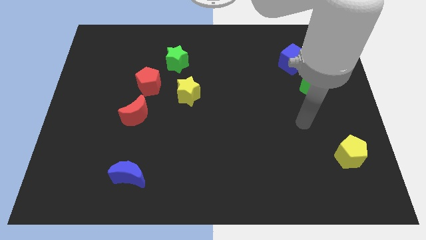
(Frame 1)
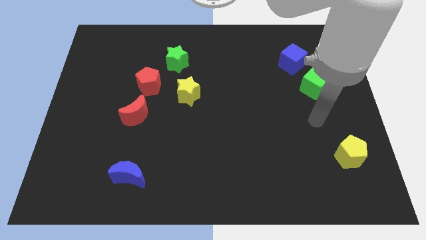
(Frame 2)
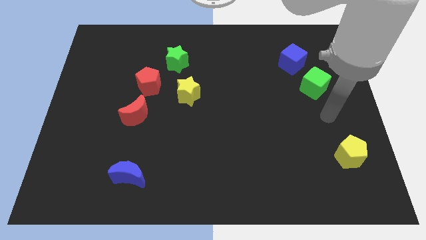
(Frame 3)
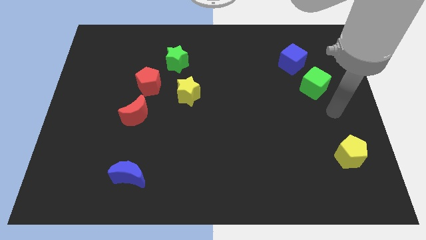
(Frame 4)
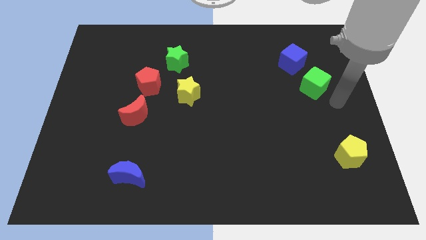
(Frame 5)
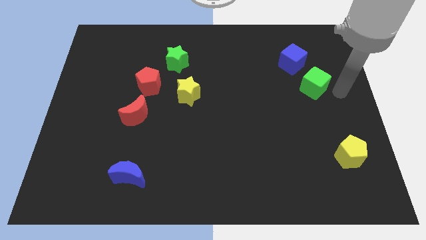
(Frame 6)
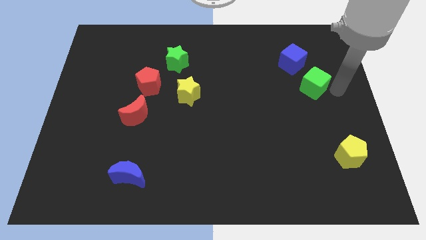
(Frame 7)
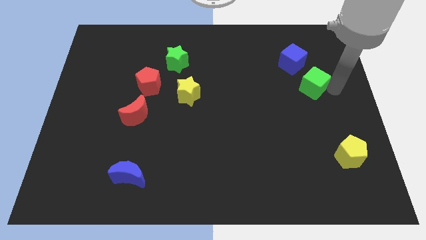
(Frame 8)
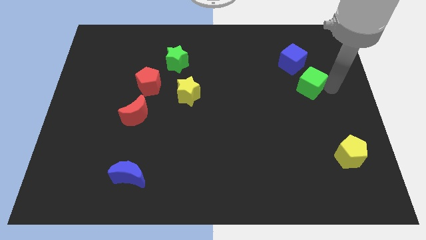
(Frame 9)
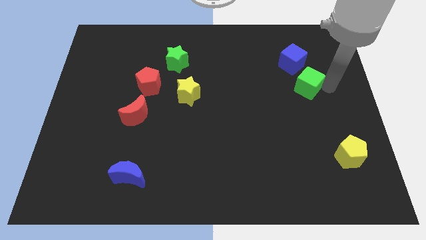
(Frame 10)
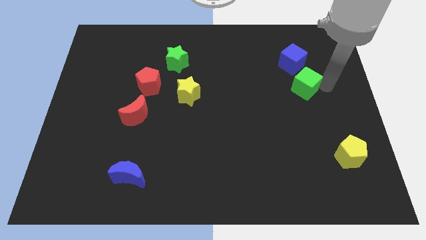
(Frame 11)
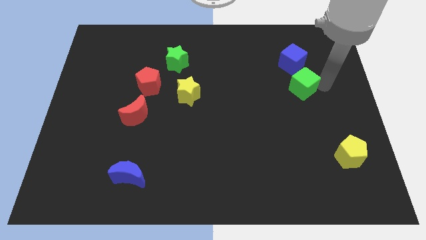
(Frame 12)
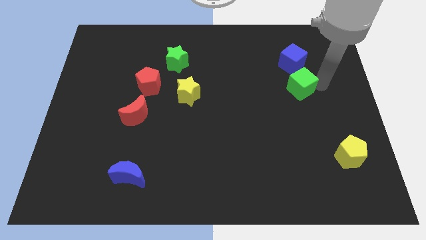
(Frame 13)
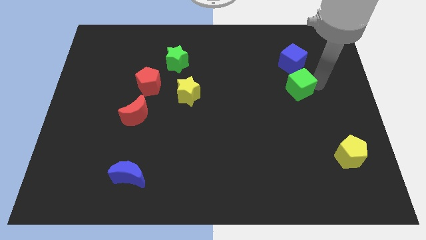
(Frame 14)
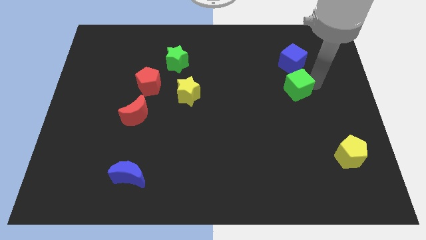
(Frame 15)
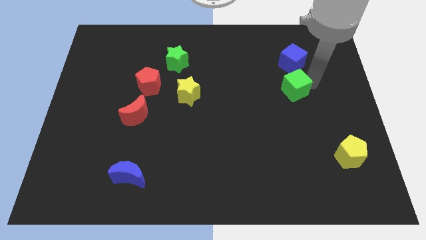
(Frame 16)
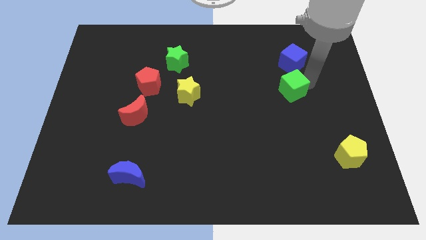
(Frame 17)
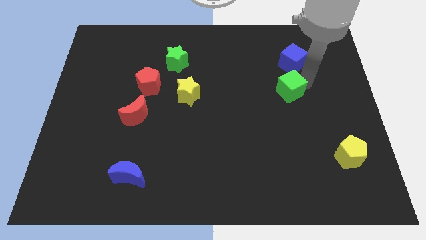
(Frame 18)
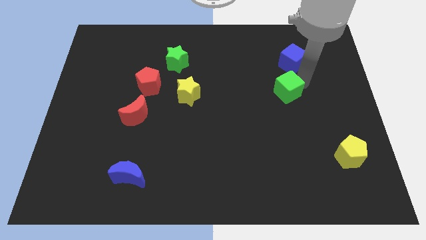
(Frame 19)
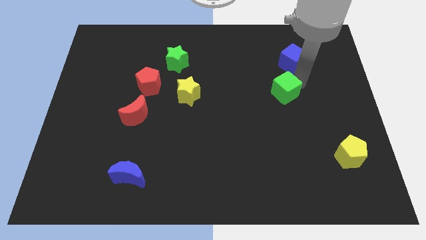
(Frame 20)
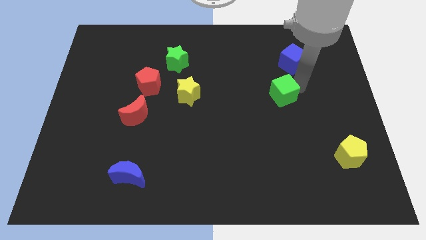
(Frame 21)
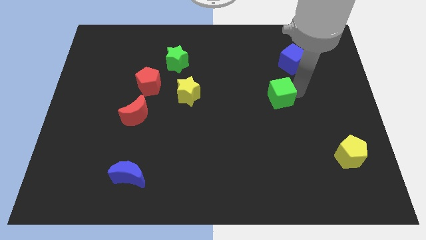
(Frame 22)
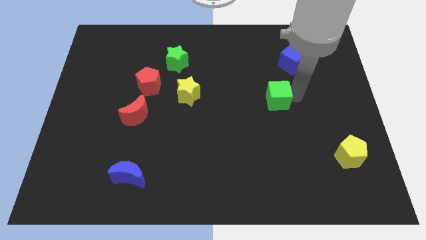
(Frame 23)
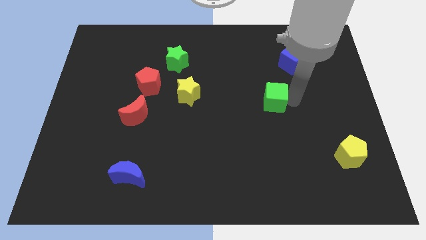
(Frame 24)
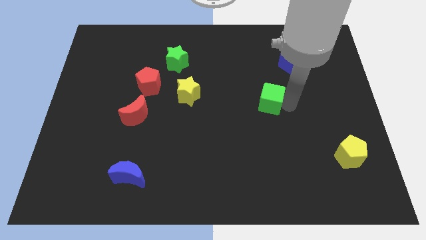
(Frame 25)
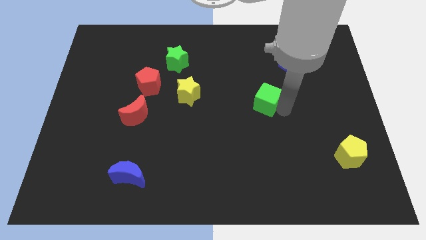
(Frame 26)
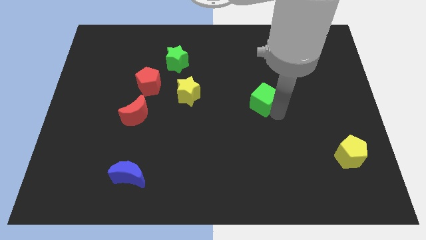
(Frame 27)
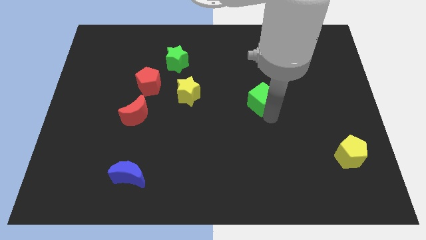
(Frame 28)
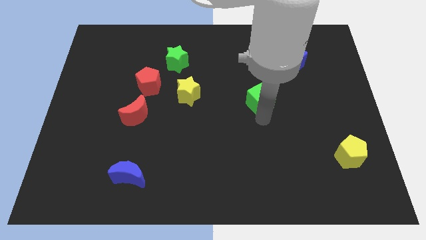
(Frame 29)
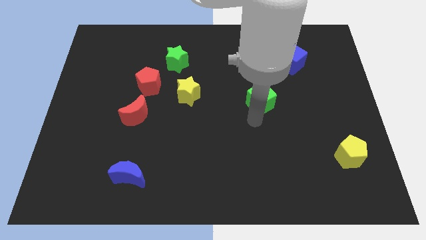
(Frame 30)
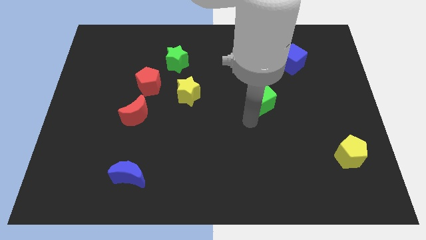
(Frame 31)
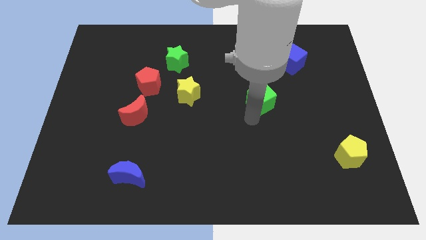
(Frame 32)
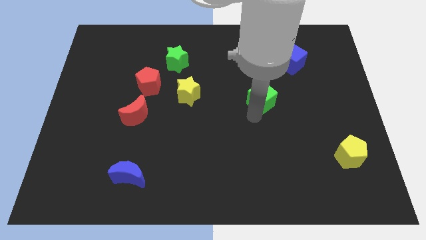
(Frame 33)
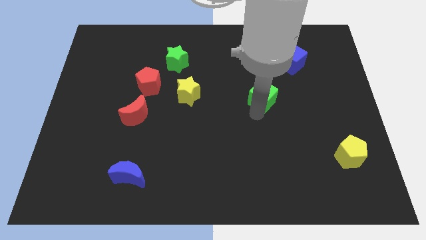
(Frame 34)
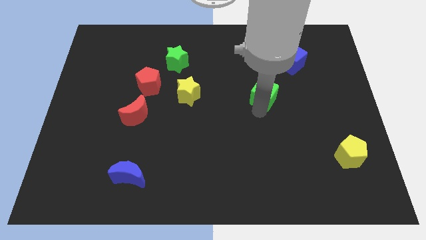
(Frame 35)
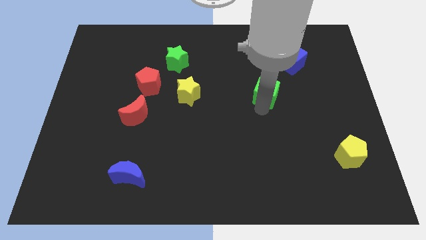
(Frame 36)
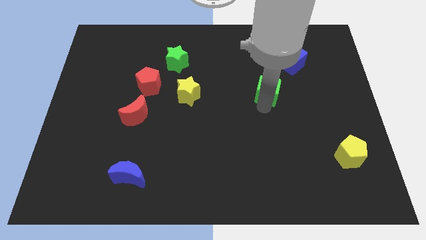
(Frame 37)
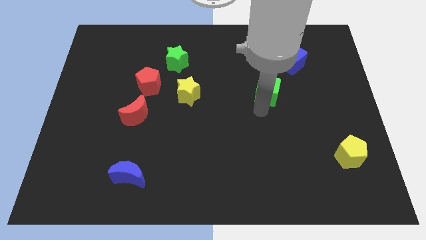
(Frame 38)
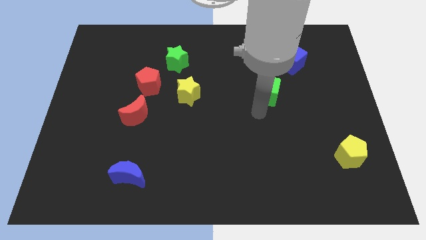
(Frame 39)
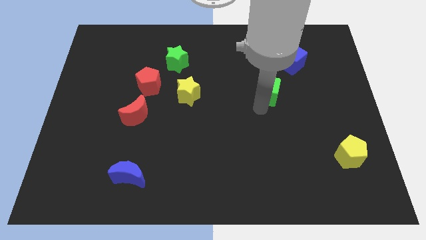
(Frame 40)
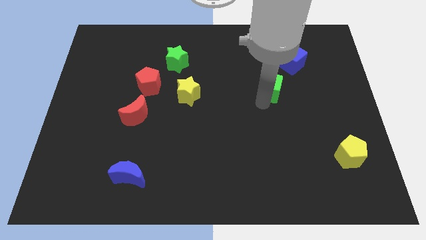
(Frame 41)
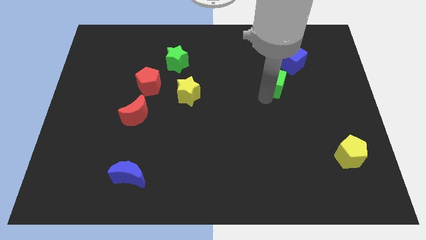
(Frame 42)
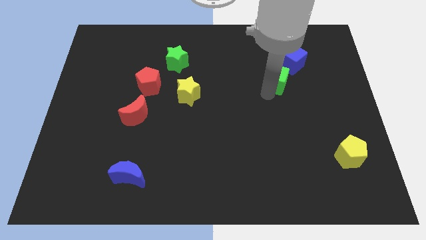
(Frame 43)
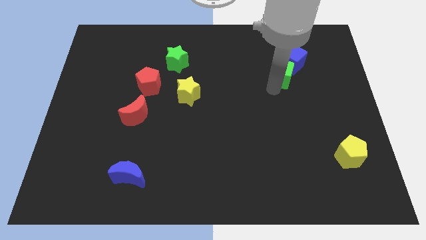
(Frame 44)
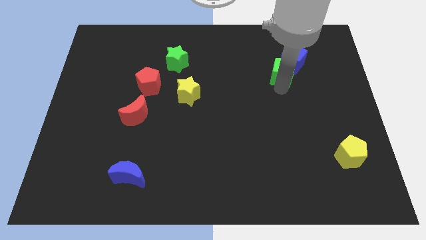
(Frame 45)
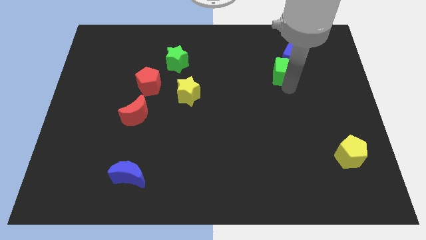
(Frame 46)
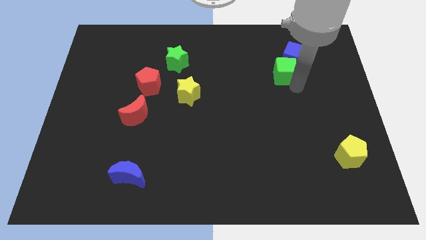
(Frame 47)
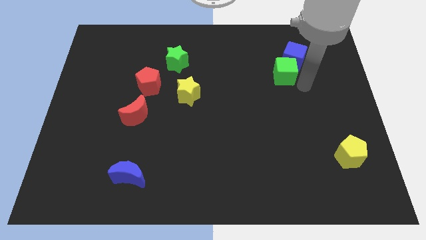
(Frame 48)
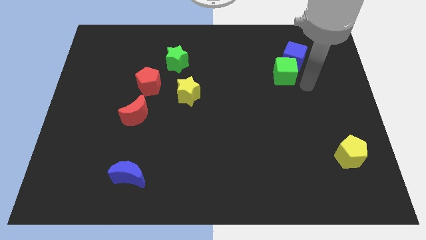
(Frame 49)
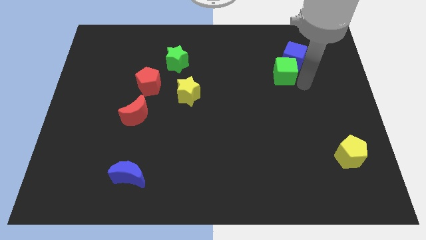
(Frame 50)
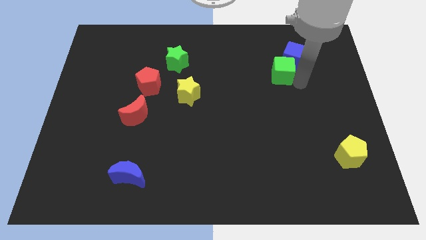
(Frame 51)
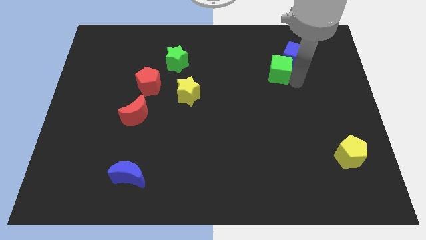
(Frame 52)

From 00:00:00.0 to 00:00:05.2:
push the green cube just left of the blue cube

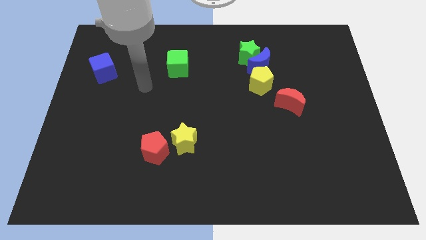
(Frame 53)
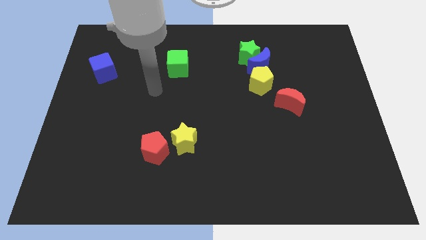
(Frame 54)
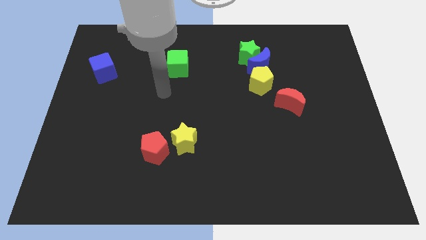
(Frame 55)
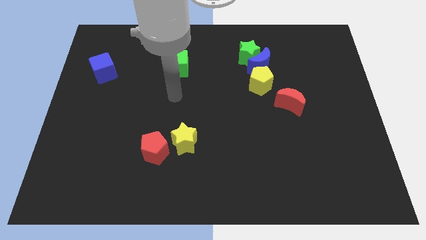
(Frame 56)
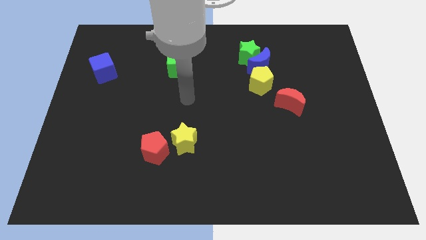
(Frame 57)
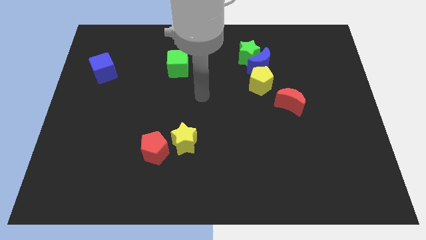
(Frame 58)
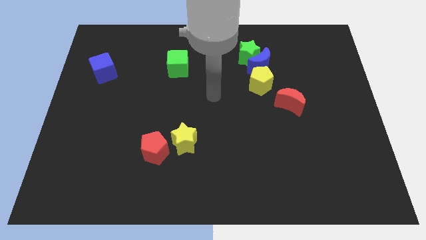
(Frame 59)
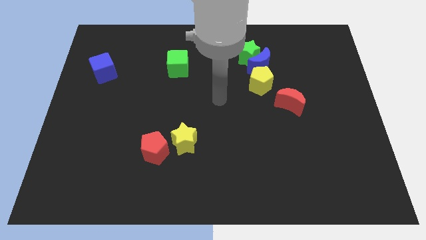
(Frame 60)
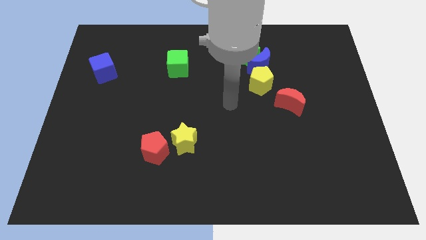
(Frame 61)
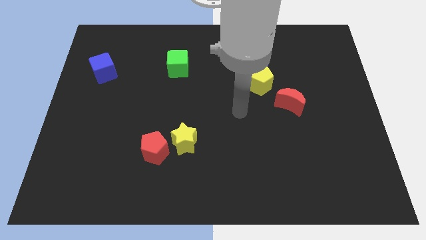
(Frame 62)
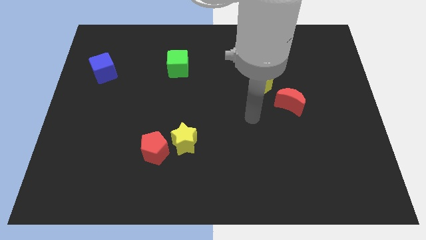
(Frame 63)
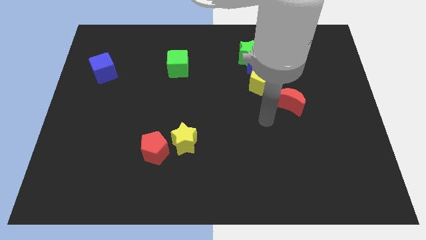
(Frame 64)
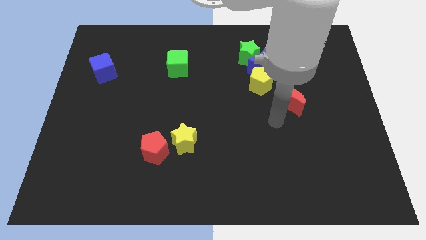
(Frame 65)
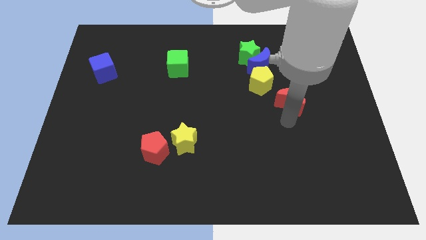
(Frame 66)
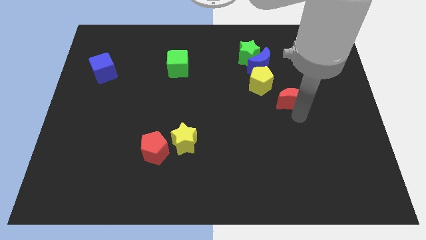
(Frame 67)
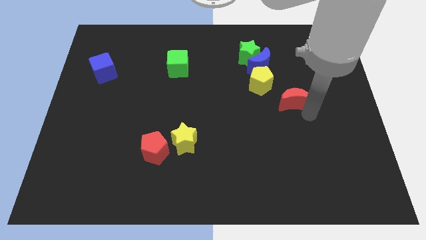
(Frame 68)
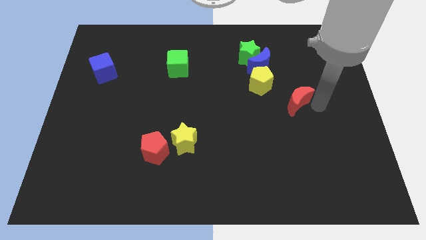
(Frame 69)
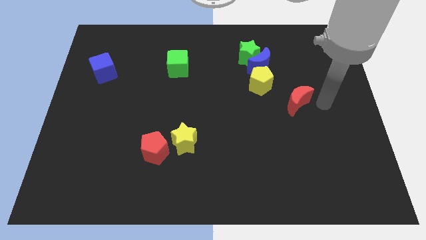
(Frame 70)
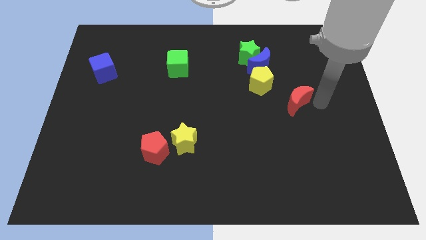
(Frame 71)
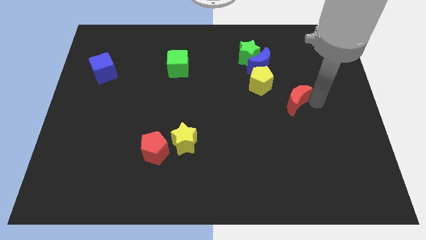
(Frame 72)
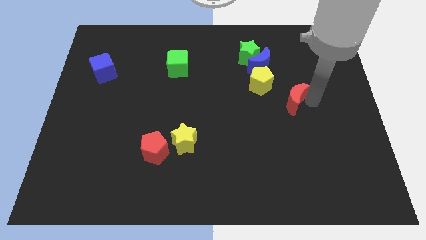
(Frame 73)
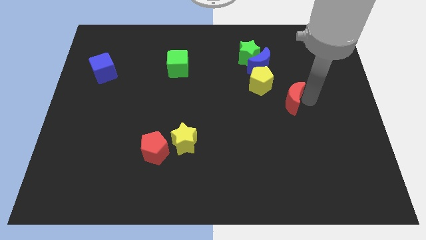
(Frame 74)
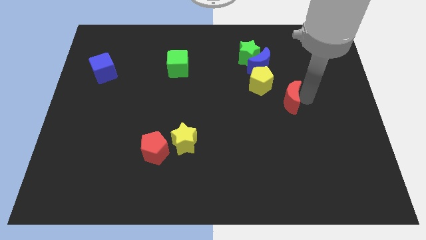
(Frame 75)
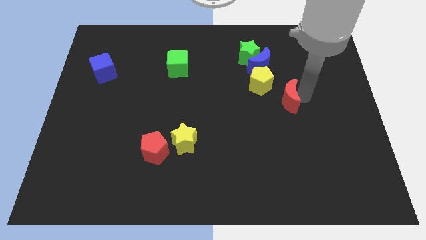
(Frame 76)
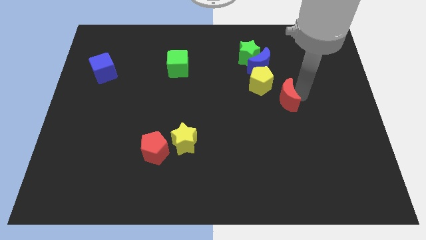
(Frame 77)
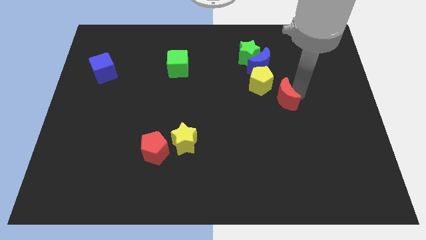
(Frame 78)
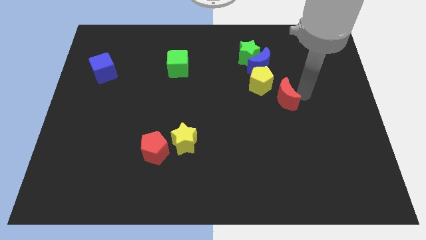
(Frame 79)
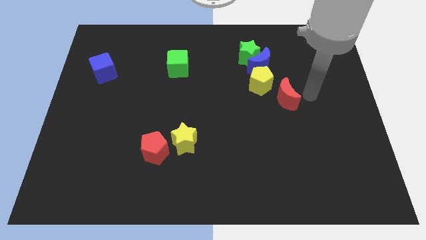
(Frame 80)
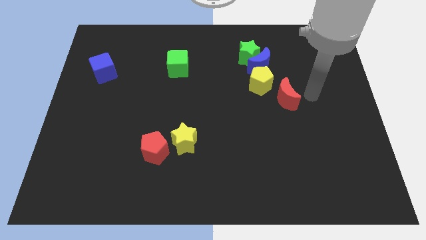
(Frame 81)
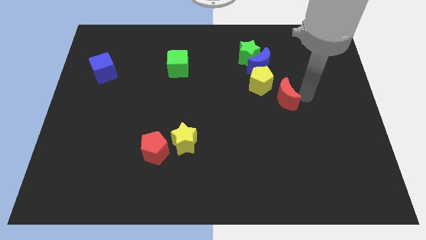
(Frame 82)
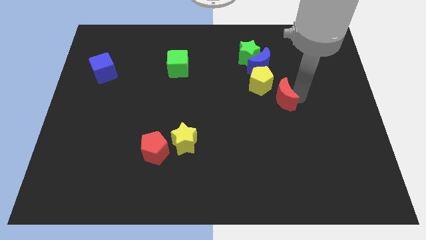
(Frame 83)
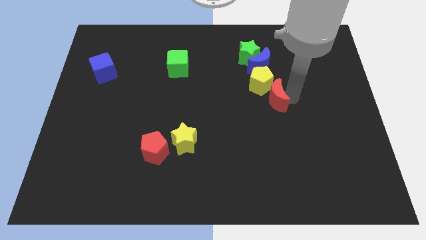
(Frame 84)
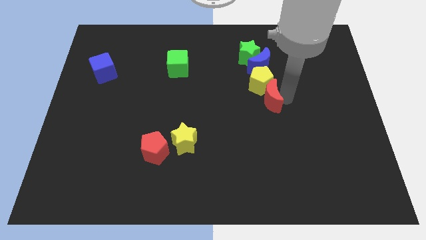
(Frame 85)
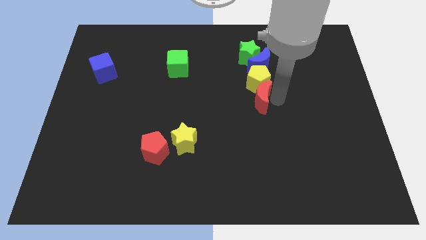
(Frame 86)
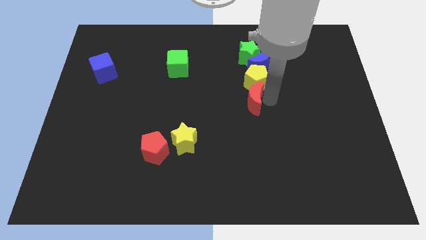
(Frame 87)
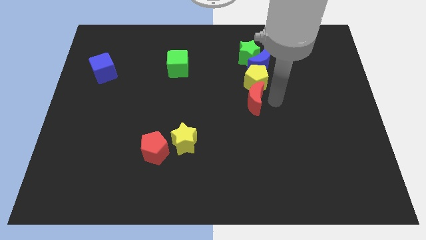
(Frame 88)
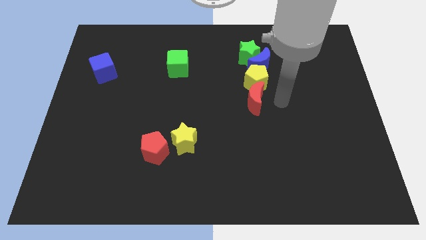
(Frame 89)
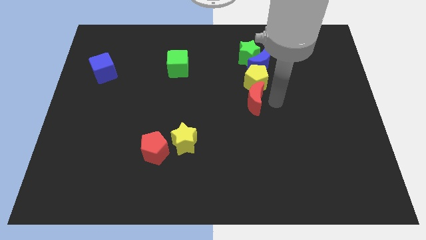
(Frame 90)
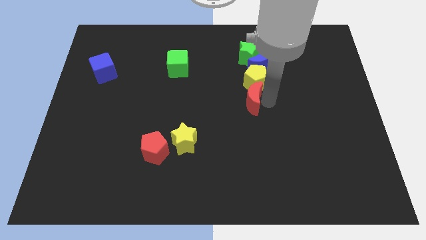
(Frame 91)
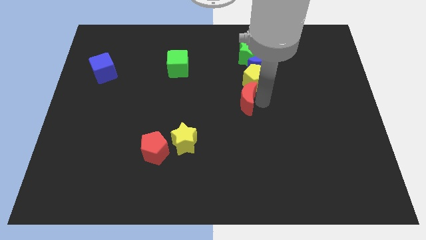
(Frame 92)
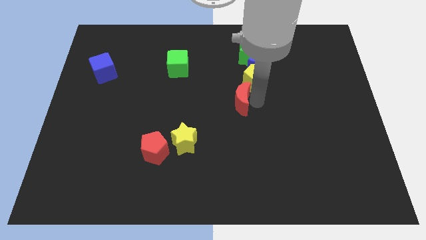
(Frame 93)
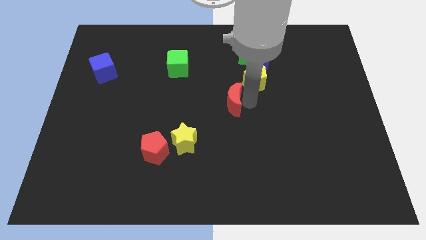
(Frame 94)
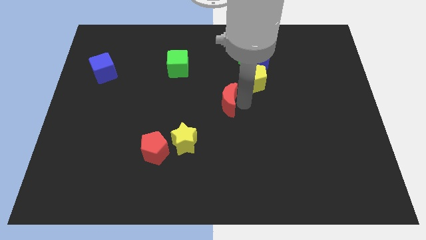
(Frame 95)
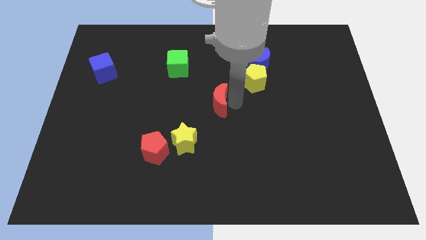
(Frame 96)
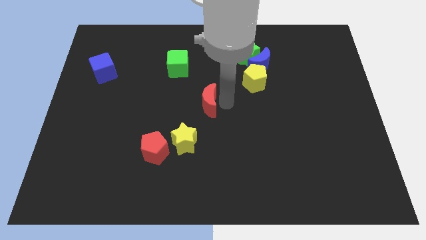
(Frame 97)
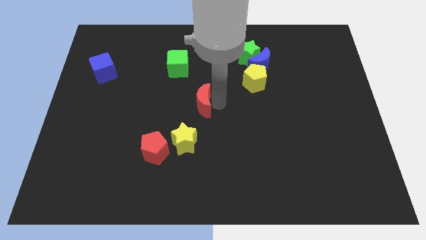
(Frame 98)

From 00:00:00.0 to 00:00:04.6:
put the red moon to the top side of the yellow star
